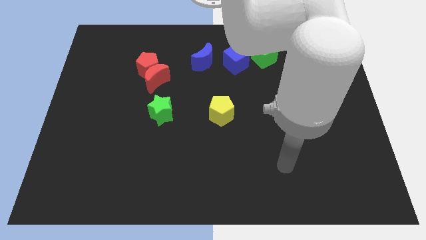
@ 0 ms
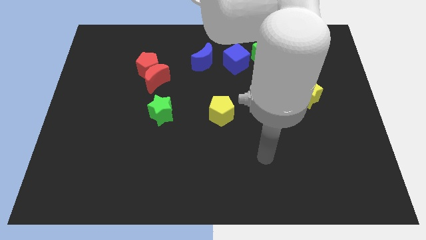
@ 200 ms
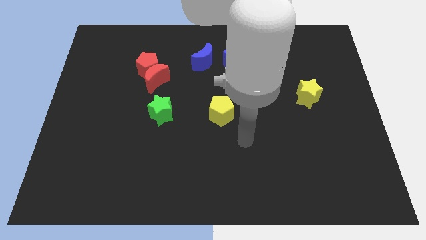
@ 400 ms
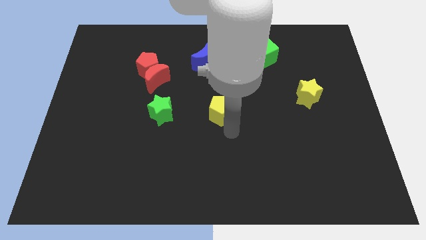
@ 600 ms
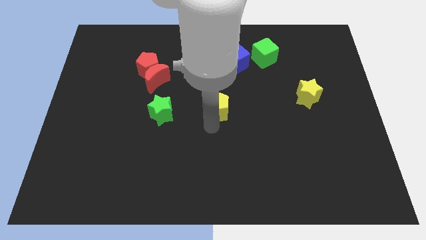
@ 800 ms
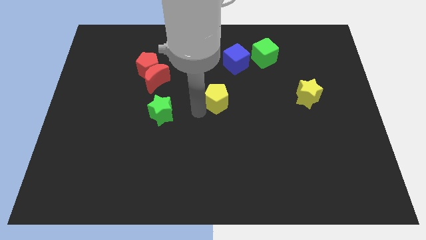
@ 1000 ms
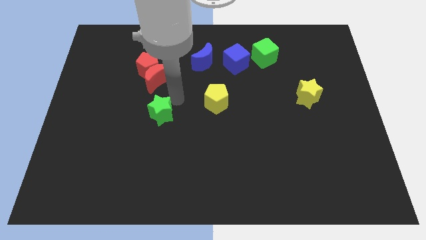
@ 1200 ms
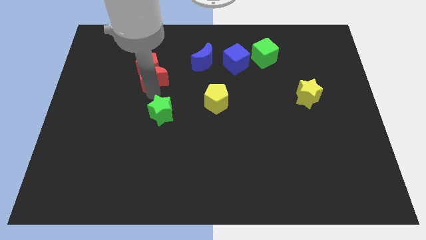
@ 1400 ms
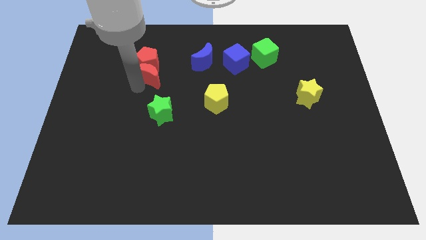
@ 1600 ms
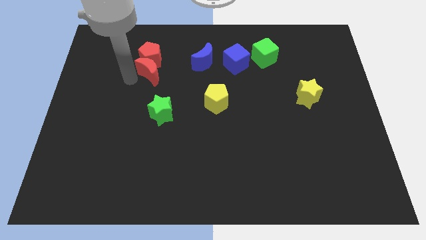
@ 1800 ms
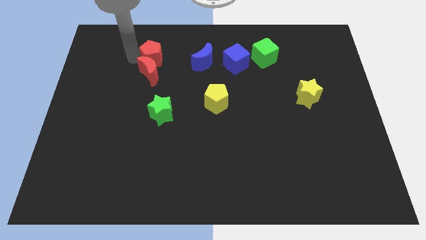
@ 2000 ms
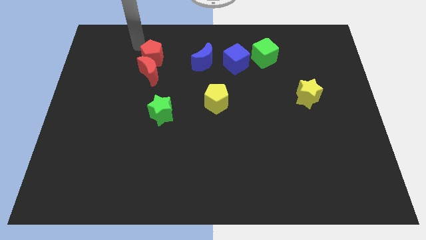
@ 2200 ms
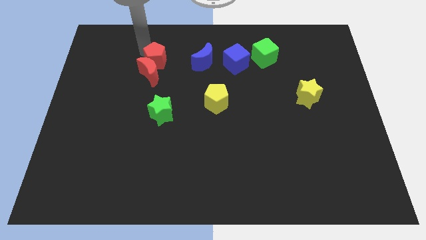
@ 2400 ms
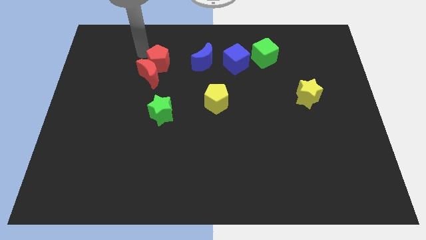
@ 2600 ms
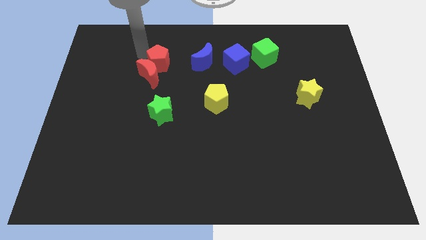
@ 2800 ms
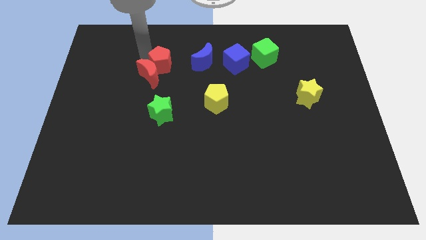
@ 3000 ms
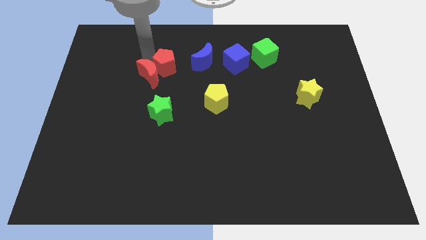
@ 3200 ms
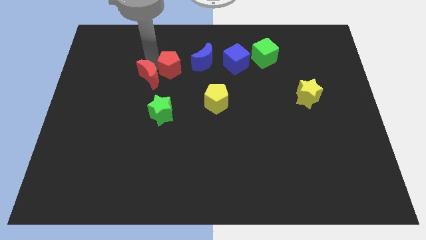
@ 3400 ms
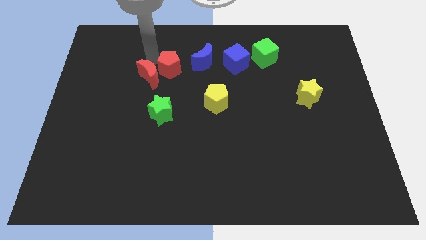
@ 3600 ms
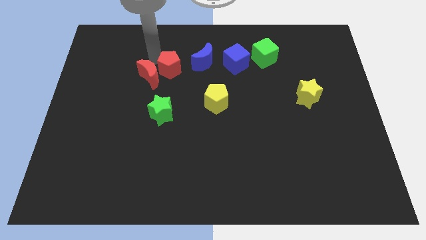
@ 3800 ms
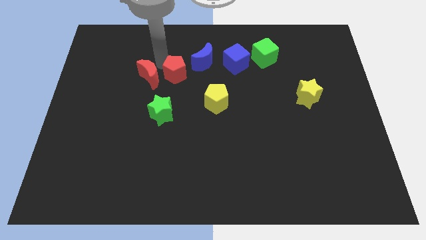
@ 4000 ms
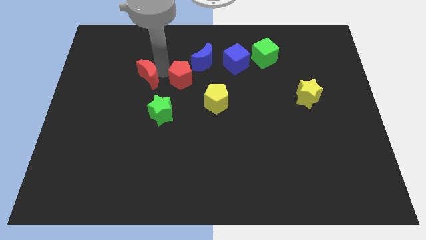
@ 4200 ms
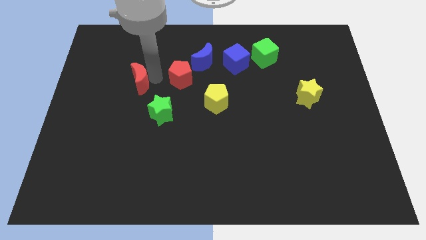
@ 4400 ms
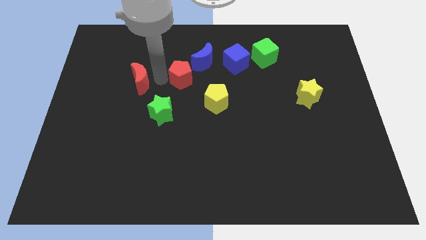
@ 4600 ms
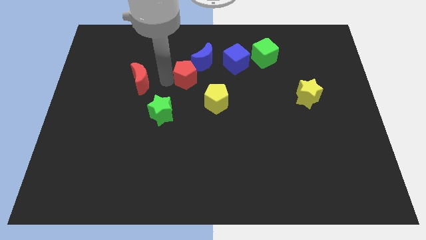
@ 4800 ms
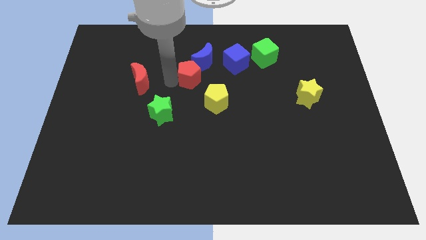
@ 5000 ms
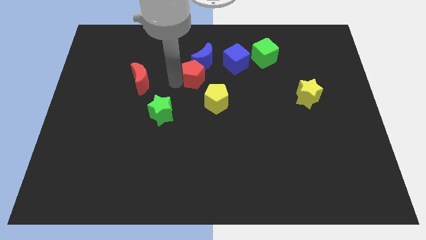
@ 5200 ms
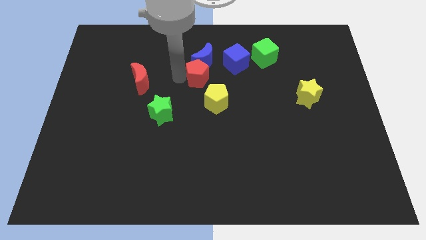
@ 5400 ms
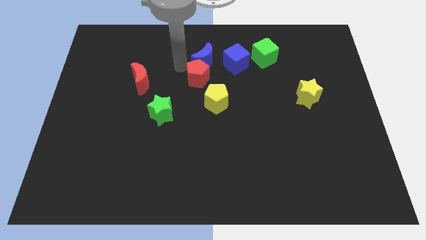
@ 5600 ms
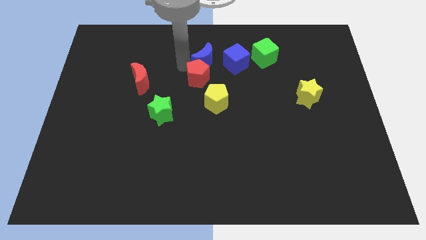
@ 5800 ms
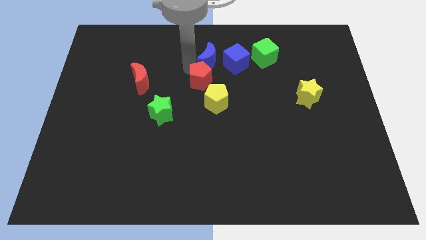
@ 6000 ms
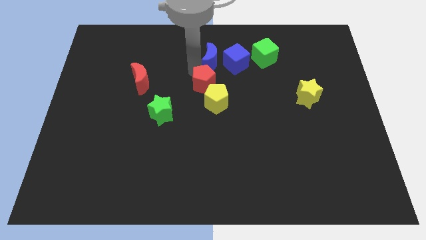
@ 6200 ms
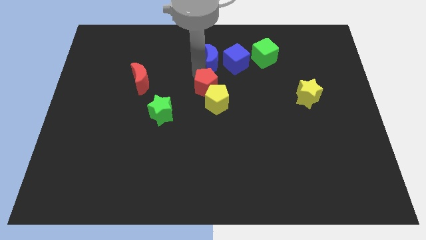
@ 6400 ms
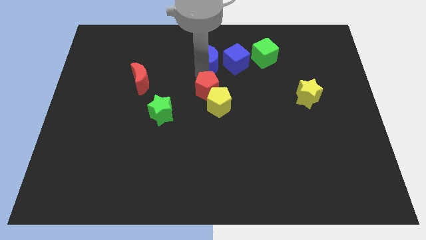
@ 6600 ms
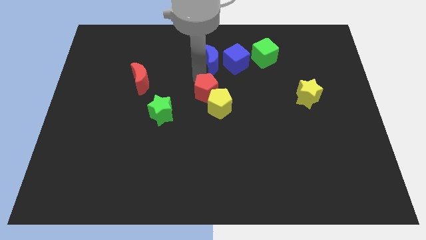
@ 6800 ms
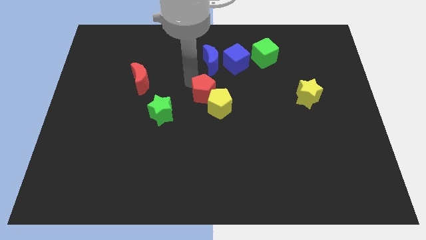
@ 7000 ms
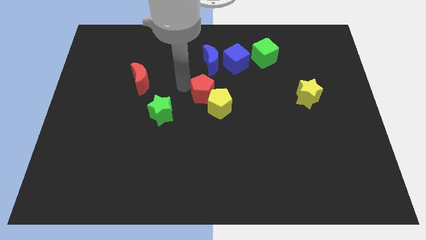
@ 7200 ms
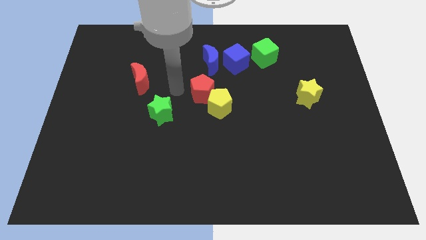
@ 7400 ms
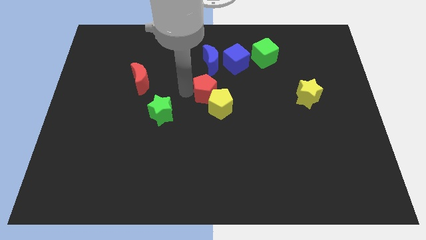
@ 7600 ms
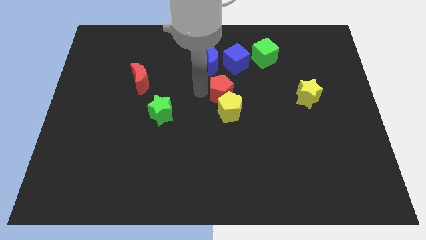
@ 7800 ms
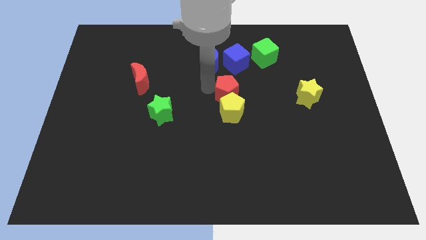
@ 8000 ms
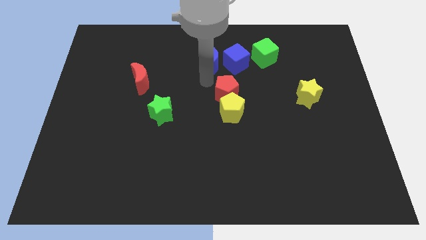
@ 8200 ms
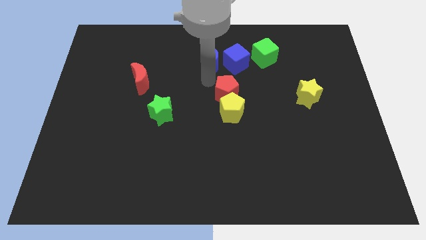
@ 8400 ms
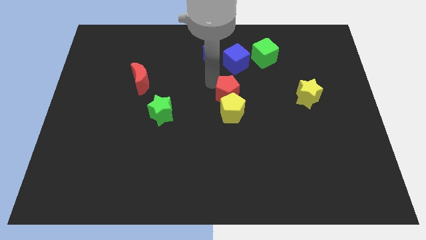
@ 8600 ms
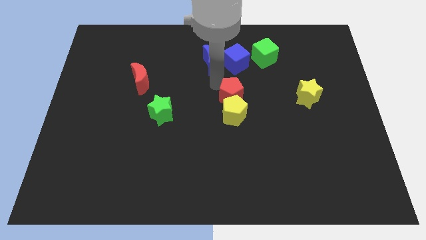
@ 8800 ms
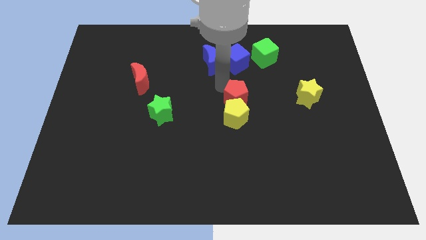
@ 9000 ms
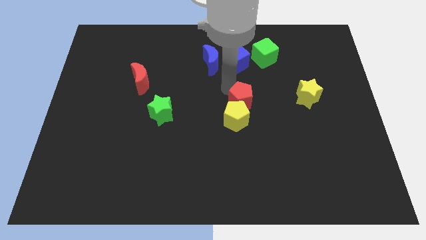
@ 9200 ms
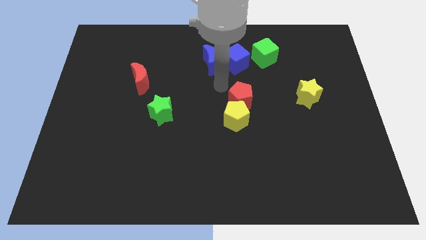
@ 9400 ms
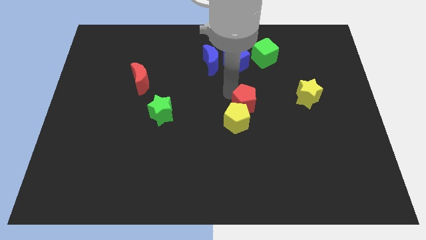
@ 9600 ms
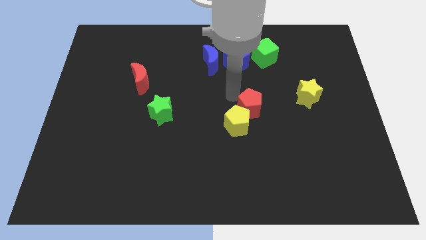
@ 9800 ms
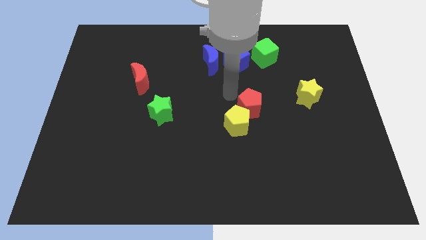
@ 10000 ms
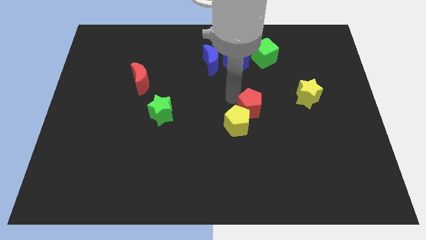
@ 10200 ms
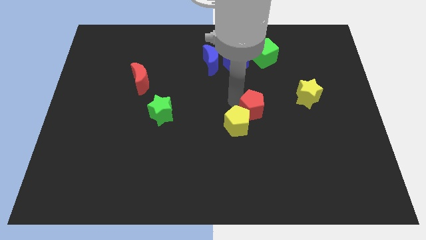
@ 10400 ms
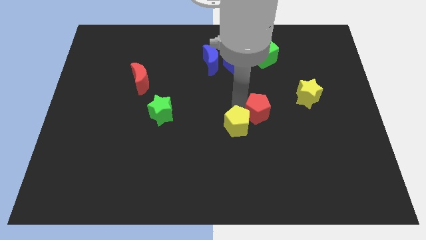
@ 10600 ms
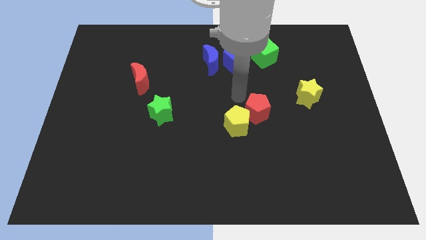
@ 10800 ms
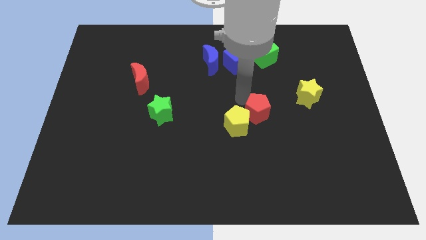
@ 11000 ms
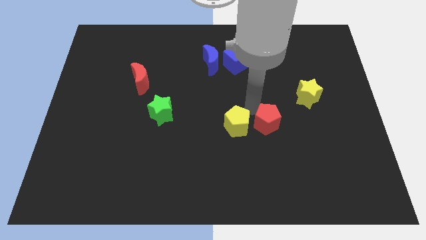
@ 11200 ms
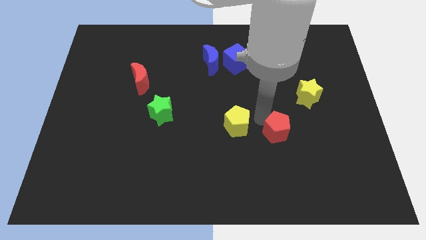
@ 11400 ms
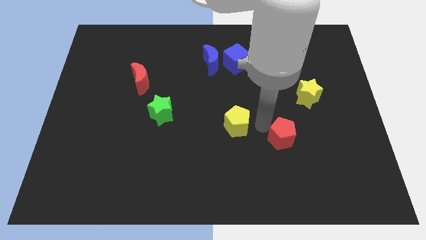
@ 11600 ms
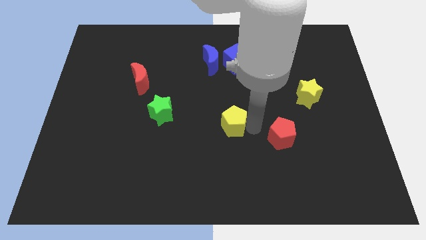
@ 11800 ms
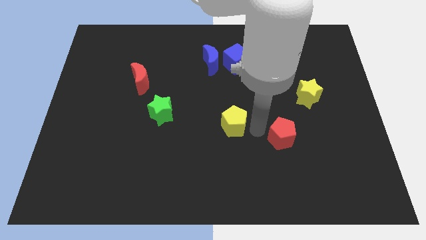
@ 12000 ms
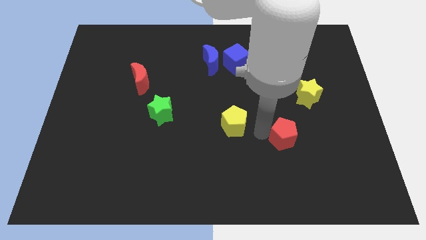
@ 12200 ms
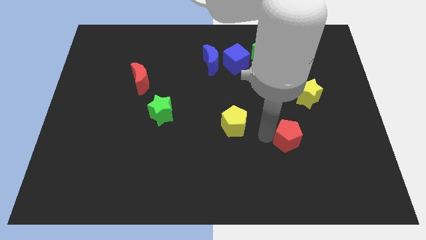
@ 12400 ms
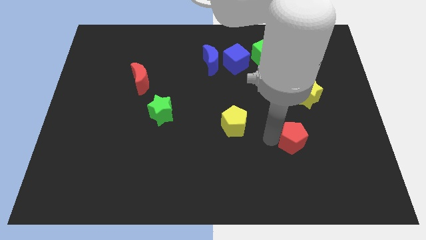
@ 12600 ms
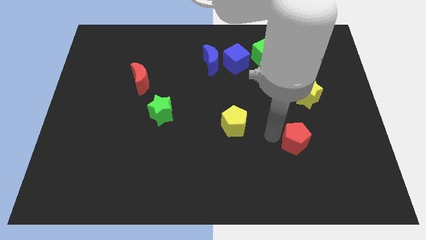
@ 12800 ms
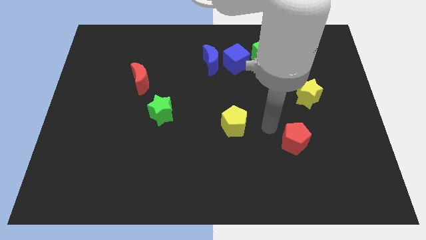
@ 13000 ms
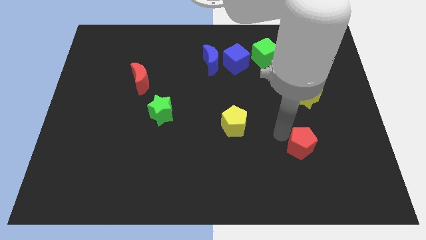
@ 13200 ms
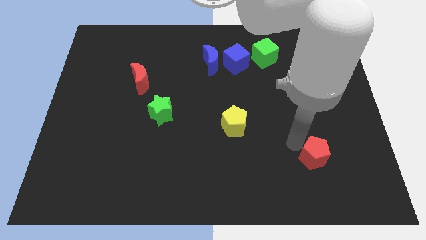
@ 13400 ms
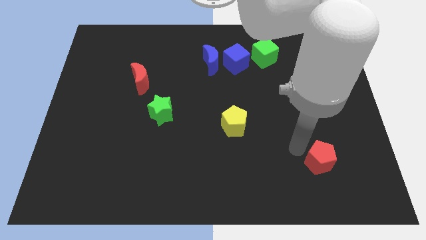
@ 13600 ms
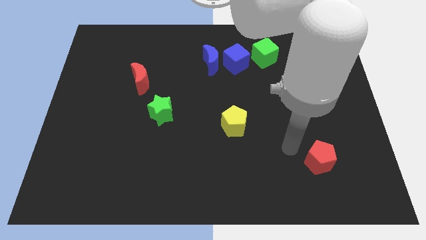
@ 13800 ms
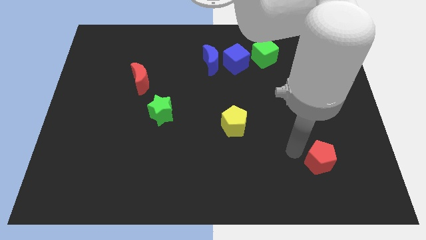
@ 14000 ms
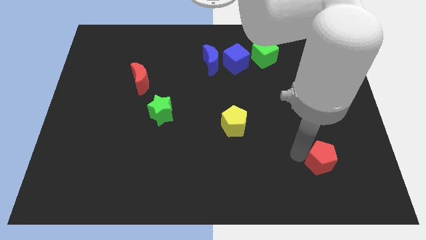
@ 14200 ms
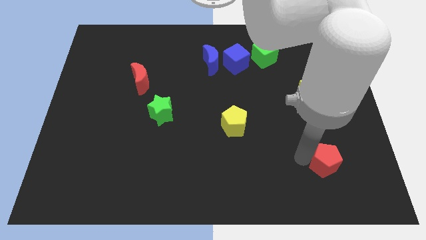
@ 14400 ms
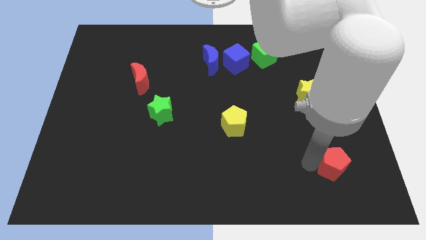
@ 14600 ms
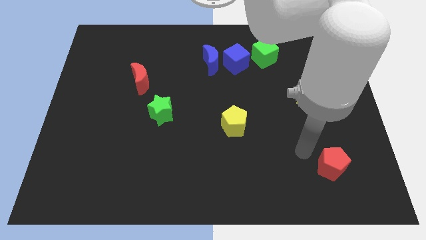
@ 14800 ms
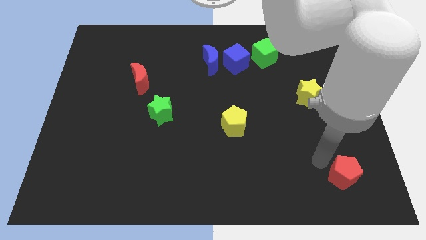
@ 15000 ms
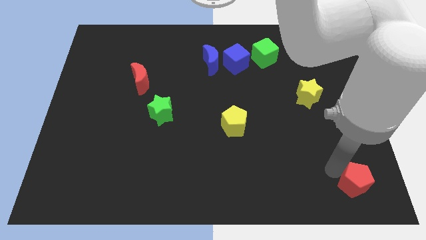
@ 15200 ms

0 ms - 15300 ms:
put the red pentagon to the bottom right
